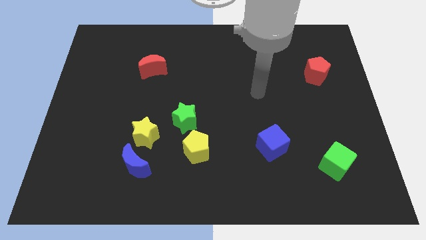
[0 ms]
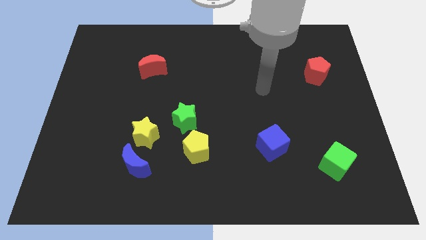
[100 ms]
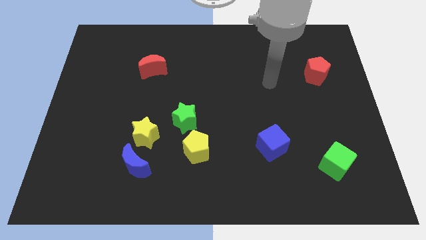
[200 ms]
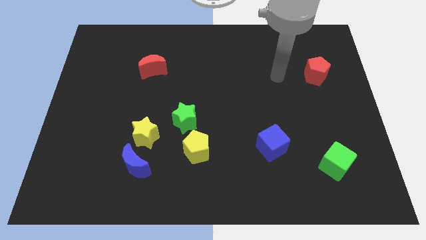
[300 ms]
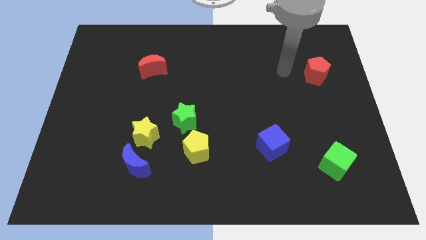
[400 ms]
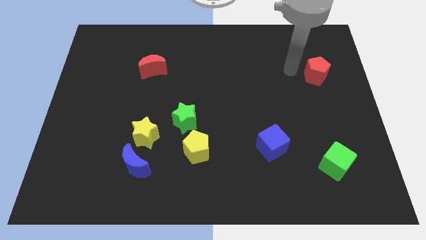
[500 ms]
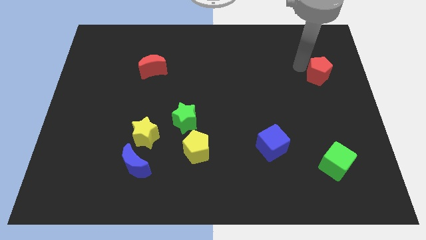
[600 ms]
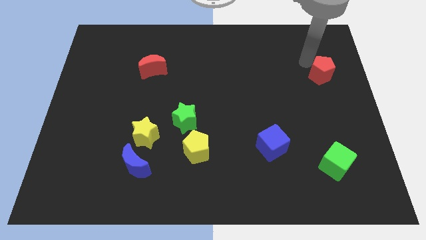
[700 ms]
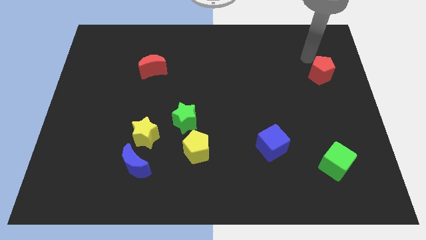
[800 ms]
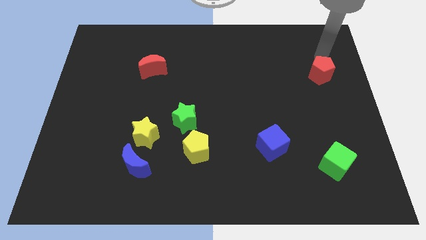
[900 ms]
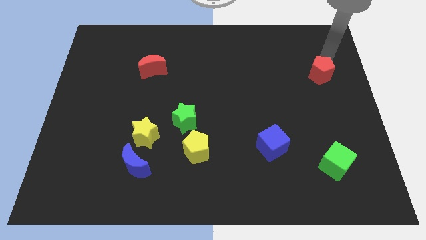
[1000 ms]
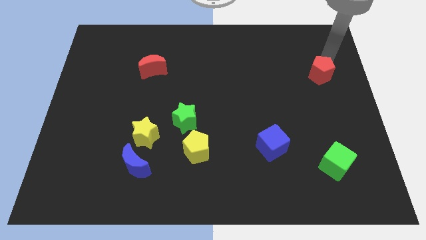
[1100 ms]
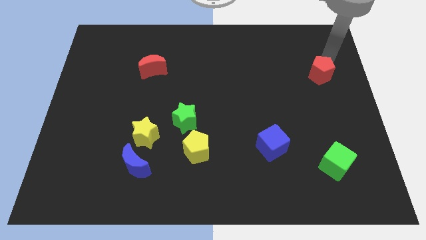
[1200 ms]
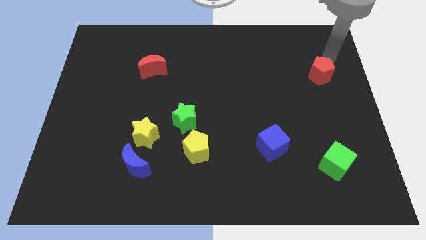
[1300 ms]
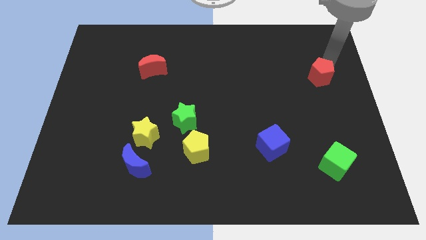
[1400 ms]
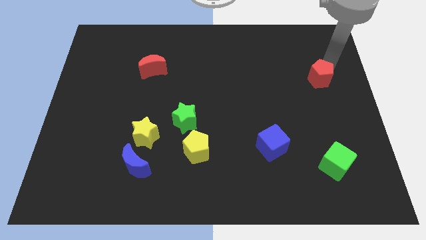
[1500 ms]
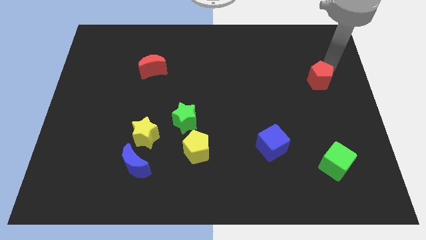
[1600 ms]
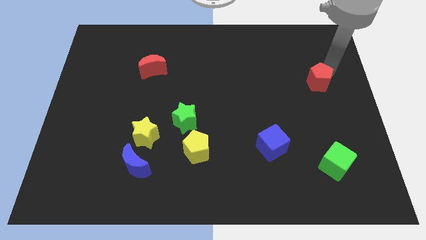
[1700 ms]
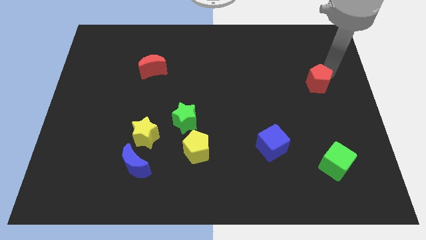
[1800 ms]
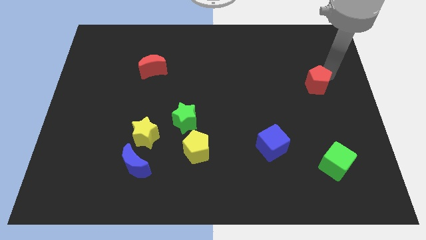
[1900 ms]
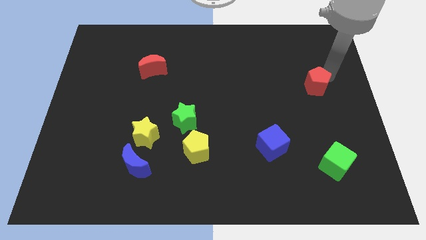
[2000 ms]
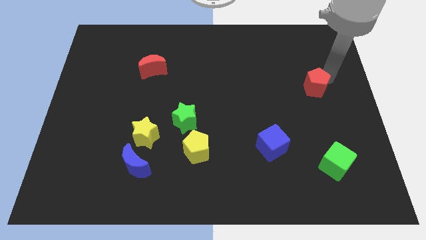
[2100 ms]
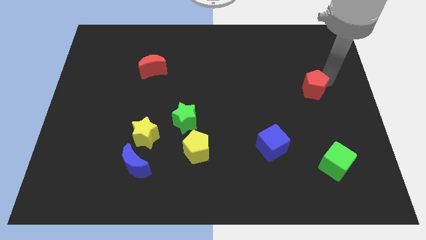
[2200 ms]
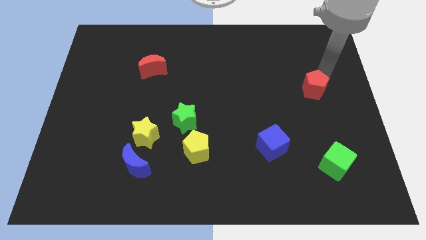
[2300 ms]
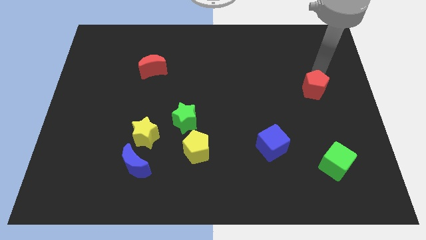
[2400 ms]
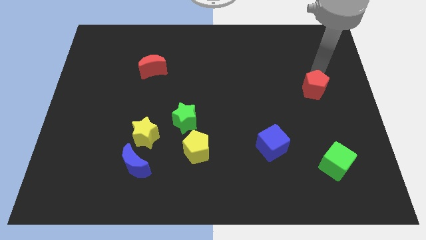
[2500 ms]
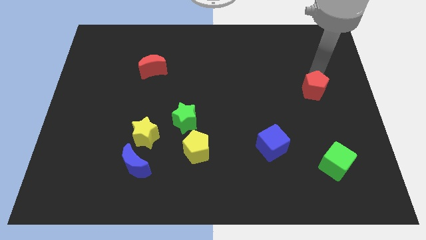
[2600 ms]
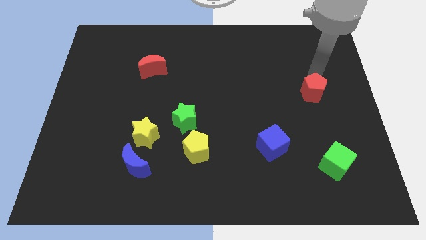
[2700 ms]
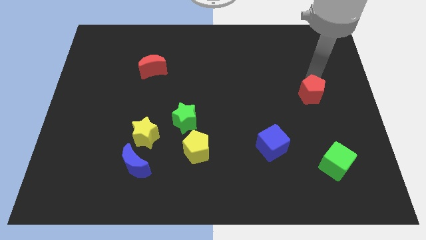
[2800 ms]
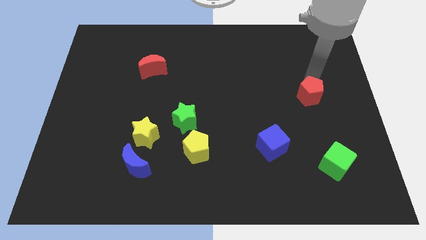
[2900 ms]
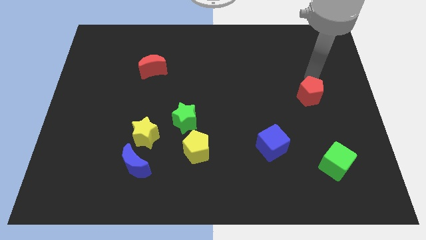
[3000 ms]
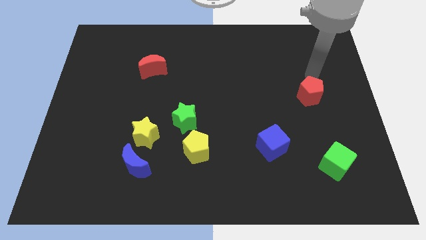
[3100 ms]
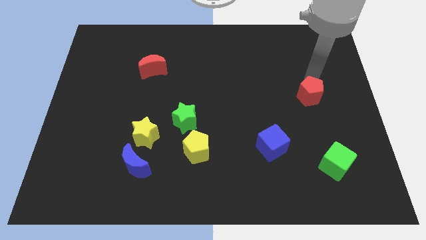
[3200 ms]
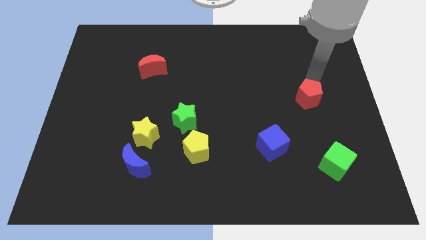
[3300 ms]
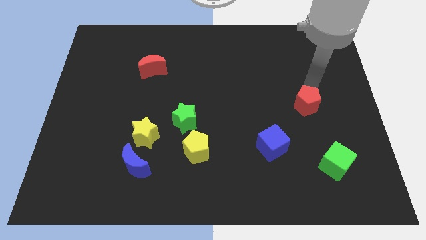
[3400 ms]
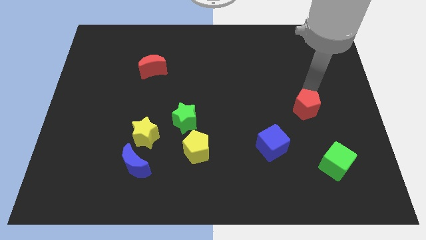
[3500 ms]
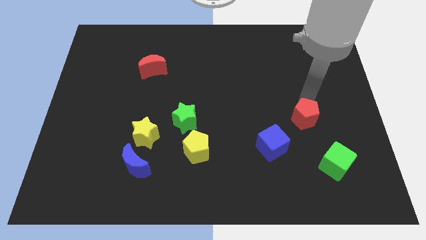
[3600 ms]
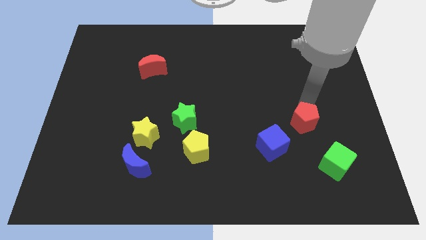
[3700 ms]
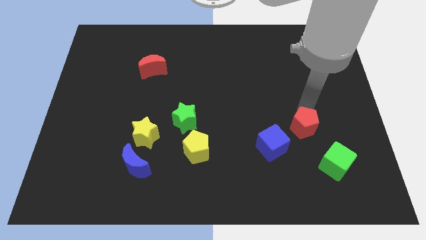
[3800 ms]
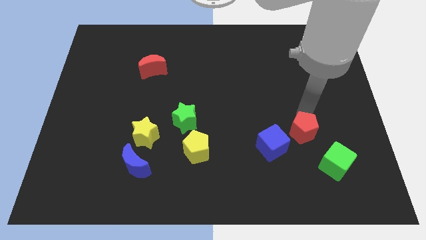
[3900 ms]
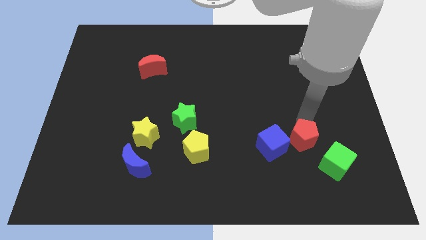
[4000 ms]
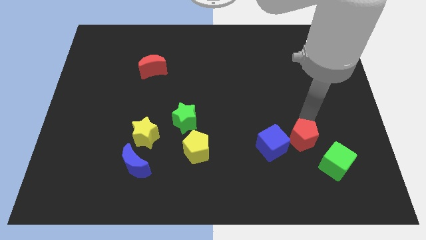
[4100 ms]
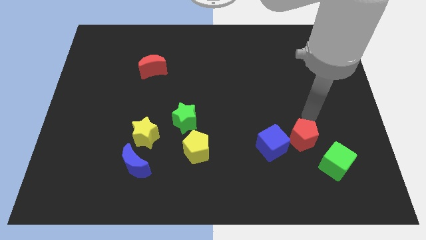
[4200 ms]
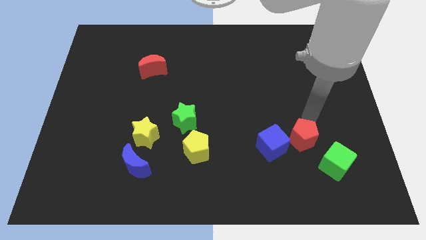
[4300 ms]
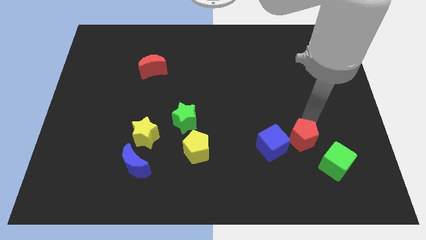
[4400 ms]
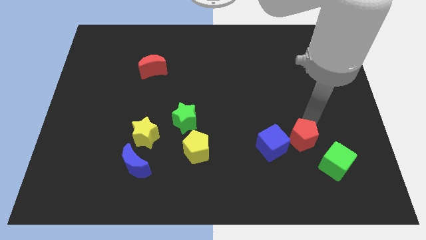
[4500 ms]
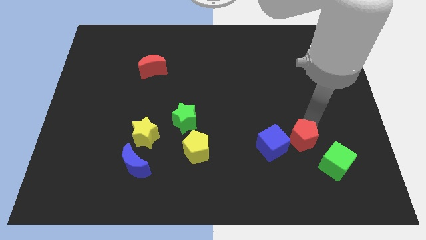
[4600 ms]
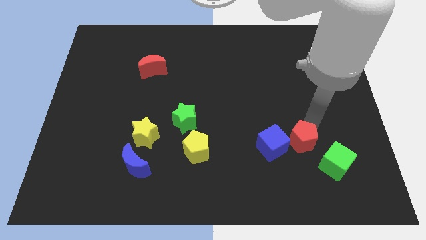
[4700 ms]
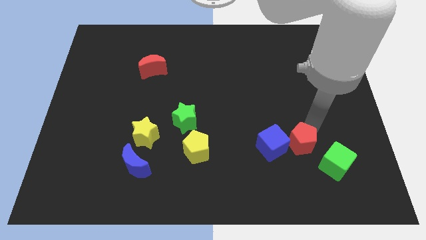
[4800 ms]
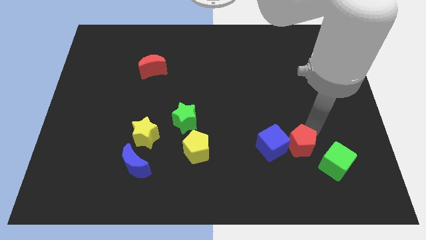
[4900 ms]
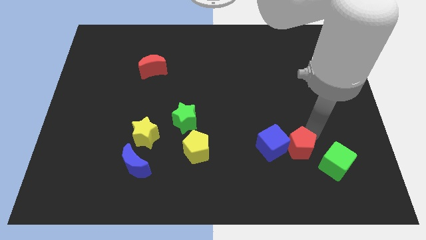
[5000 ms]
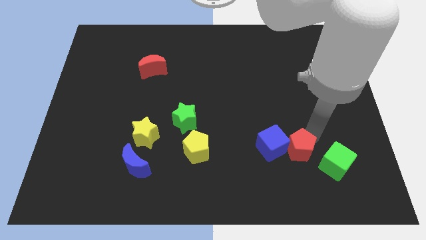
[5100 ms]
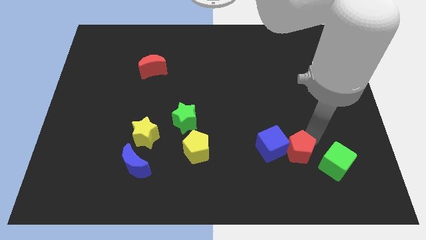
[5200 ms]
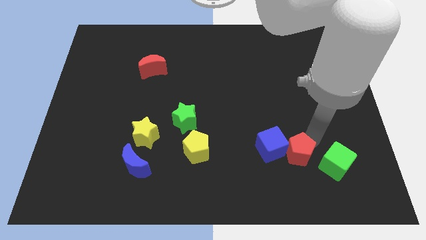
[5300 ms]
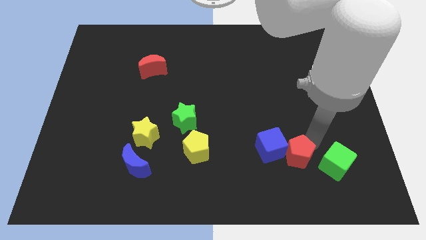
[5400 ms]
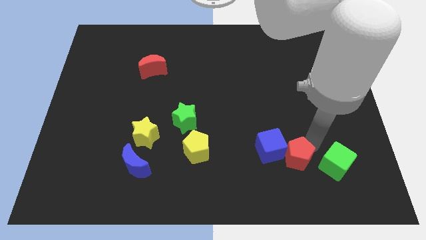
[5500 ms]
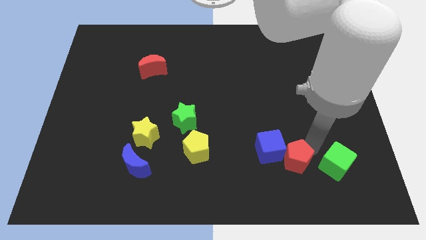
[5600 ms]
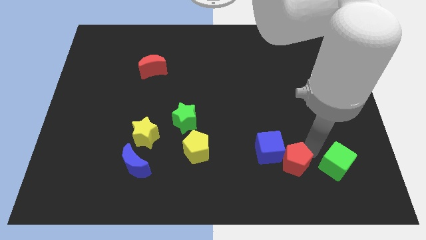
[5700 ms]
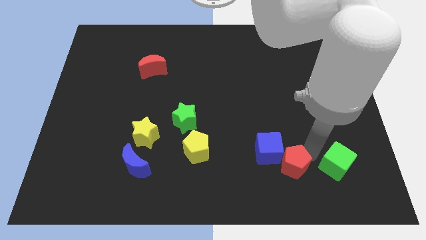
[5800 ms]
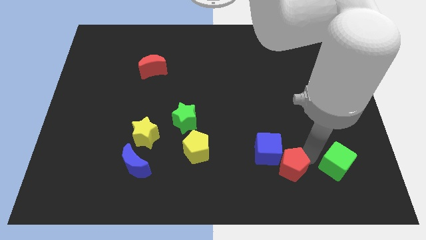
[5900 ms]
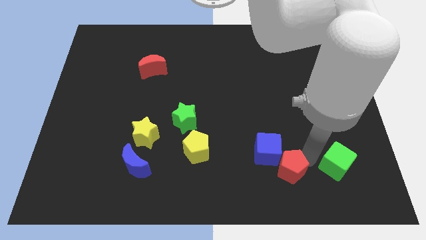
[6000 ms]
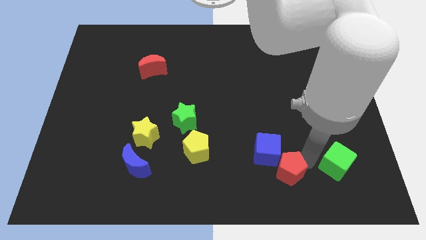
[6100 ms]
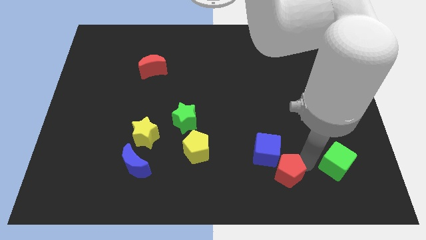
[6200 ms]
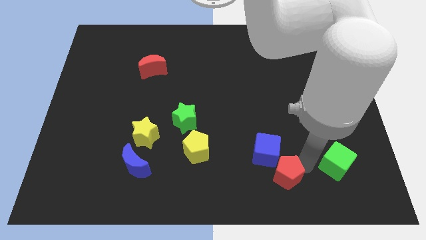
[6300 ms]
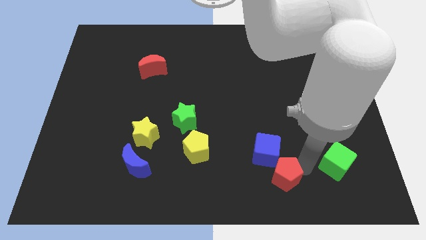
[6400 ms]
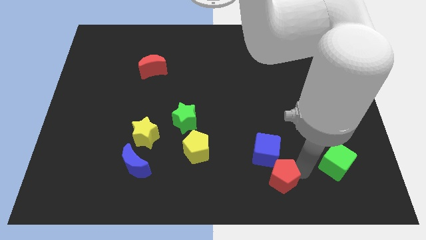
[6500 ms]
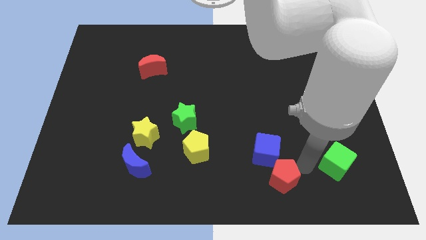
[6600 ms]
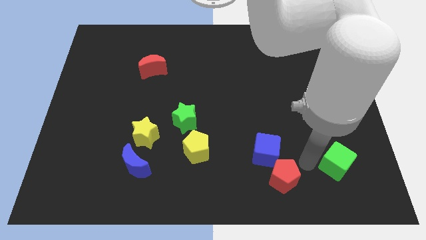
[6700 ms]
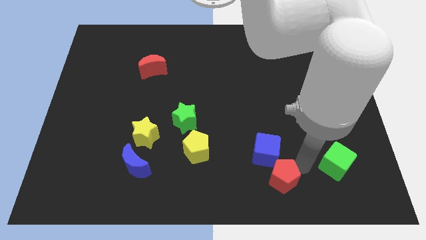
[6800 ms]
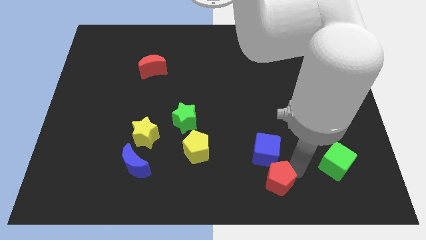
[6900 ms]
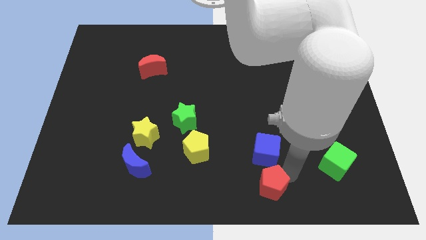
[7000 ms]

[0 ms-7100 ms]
push the red pentagon to the bottom side
